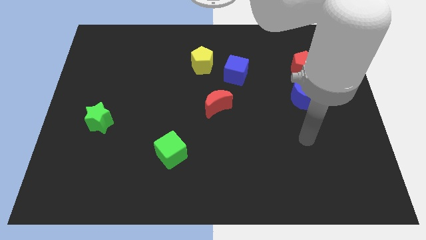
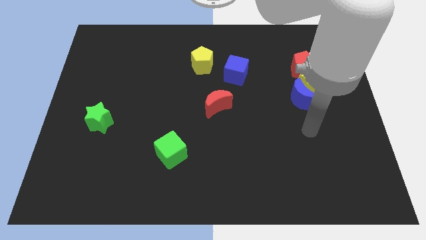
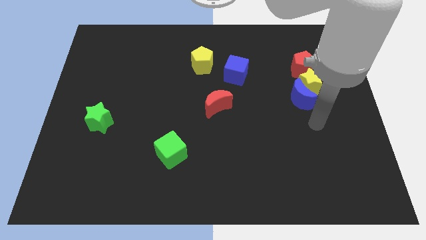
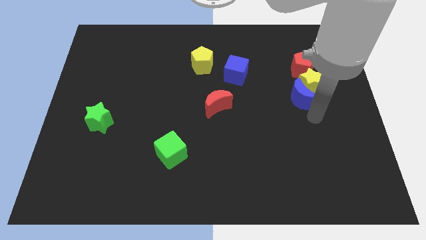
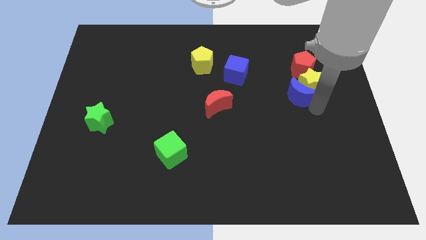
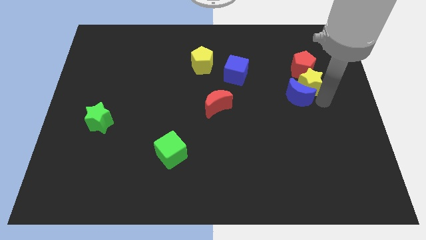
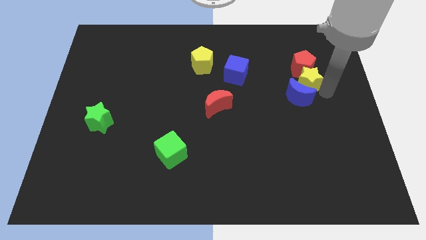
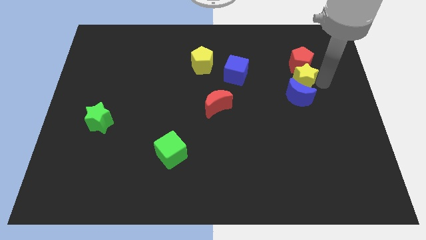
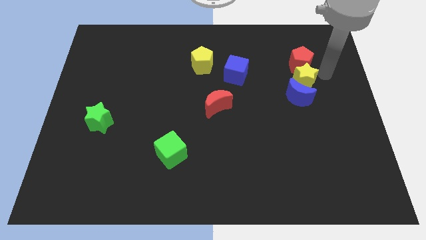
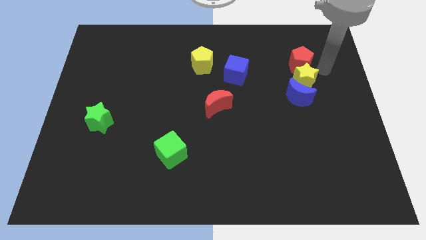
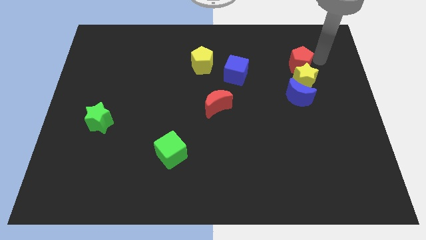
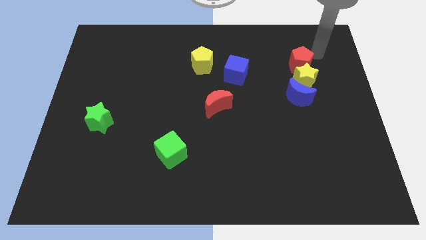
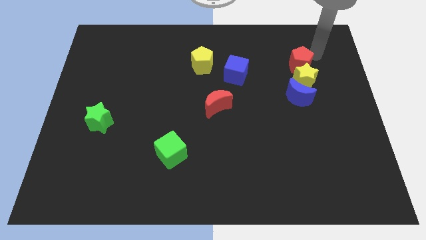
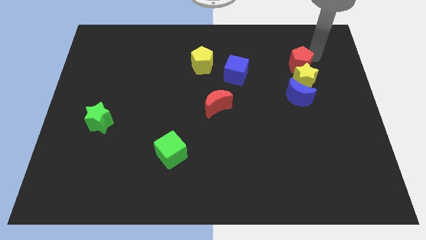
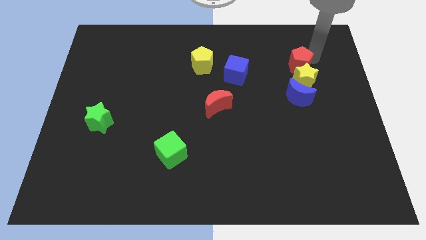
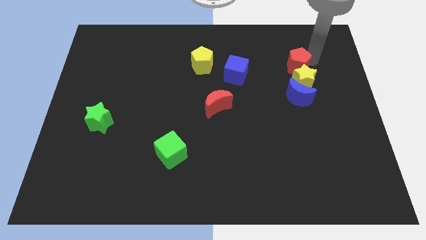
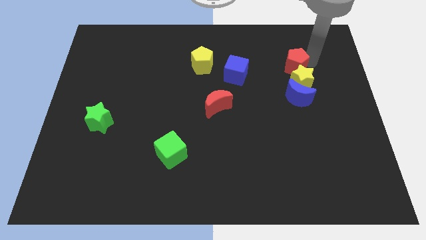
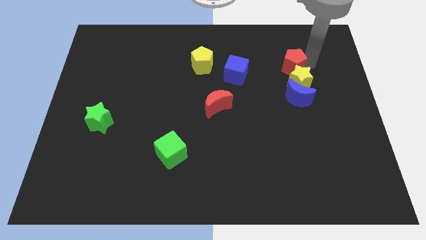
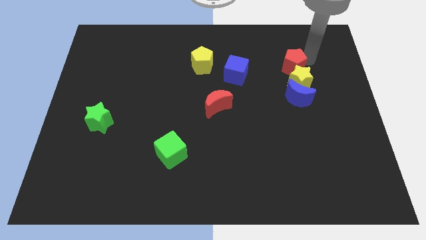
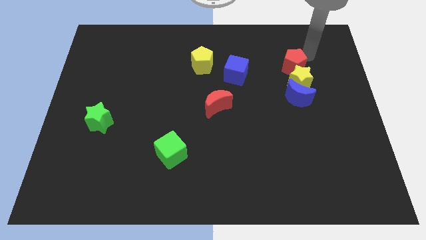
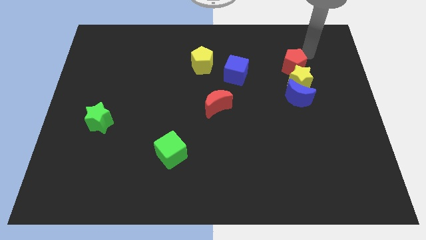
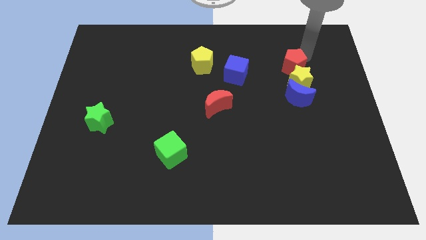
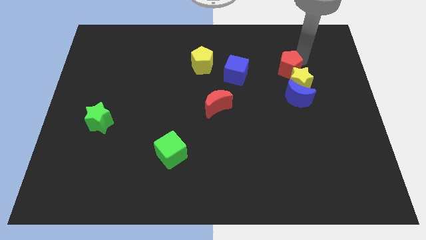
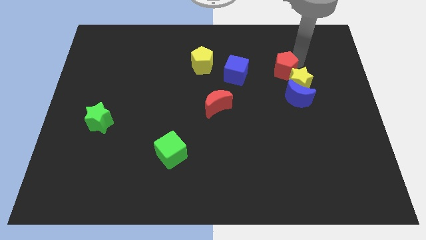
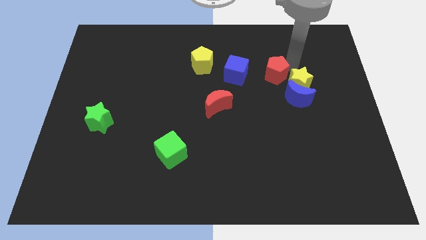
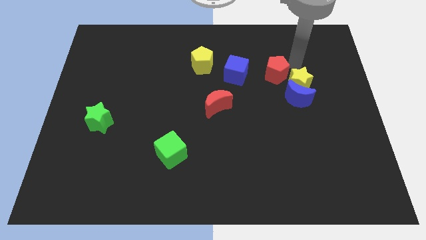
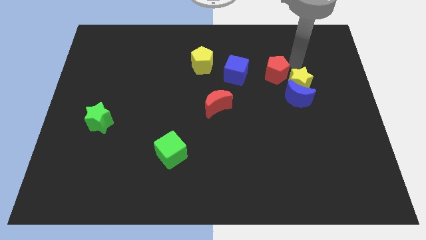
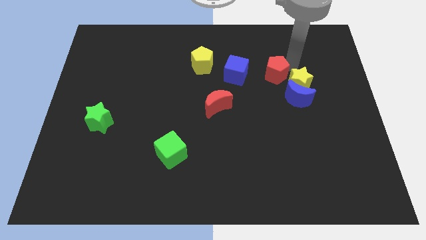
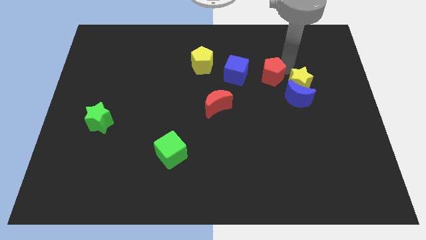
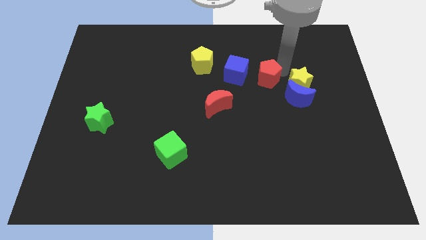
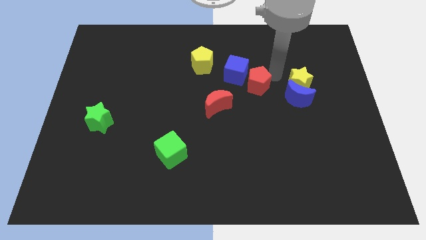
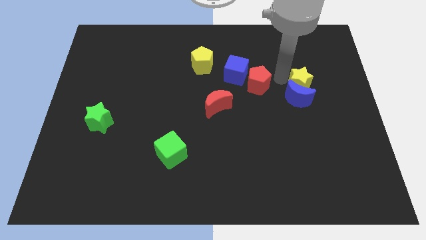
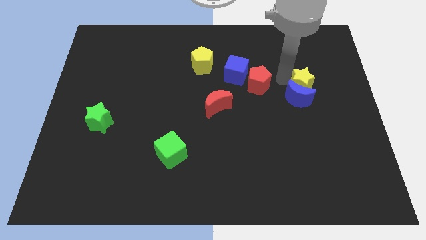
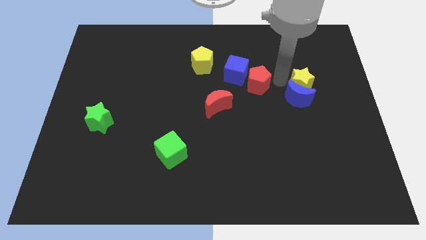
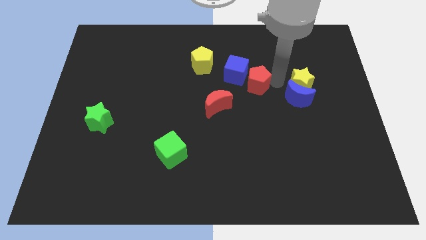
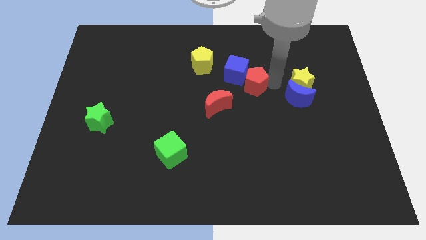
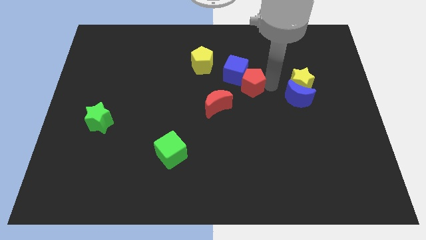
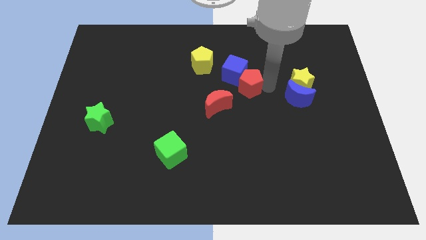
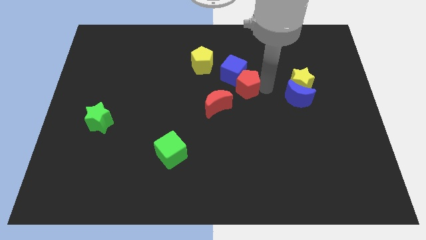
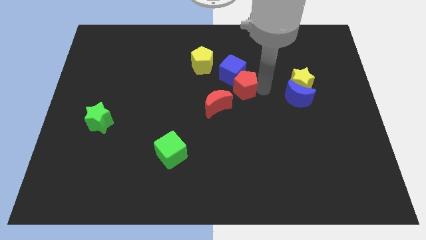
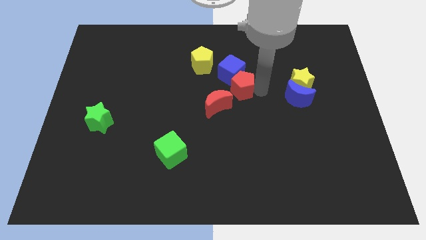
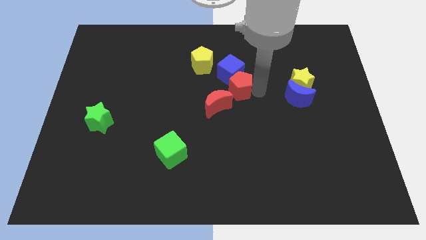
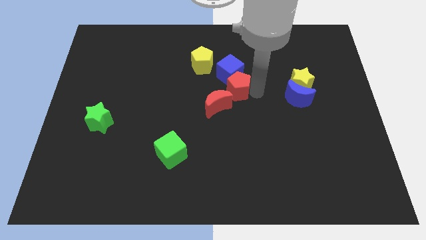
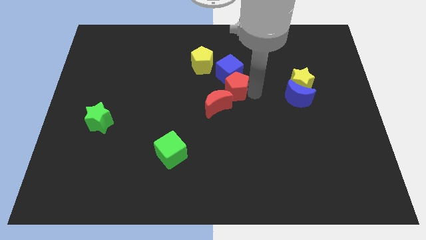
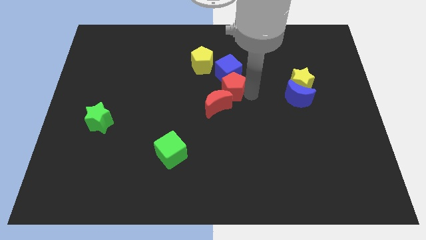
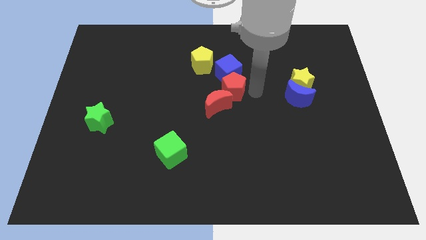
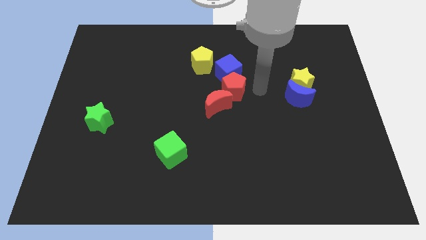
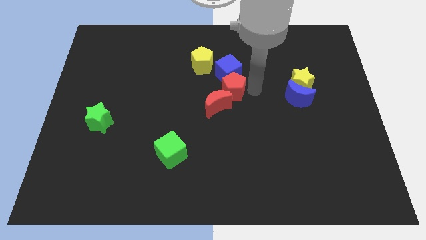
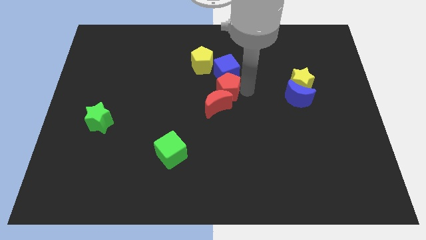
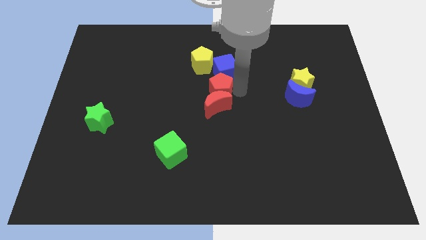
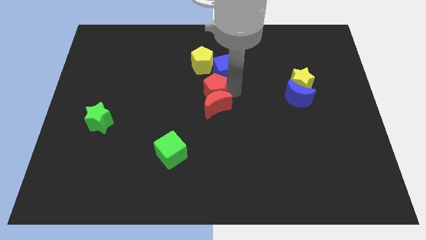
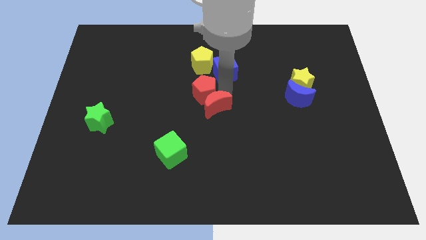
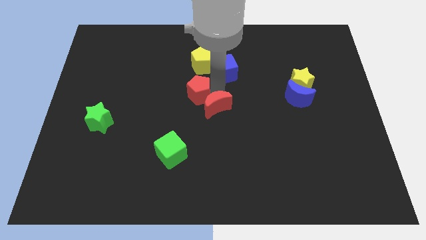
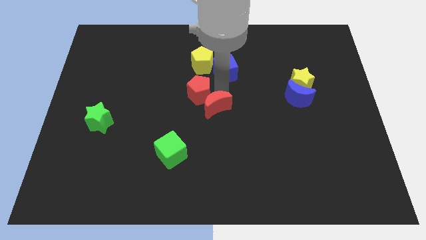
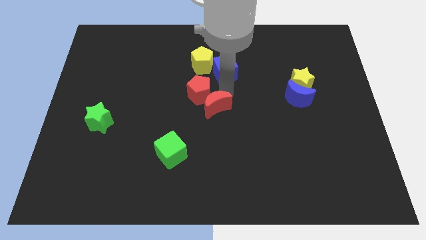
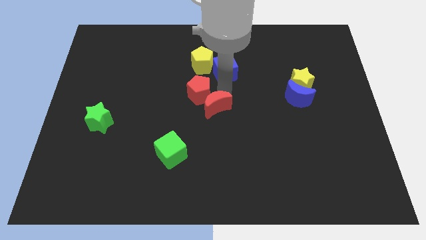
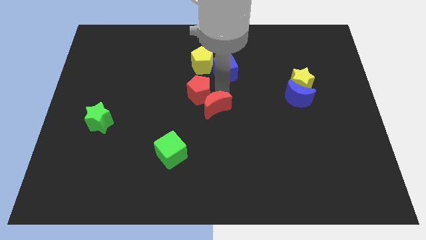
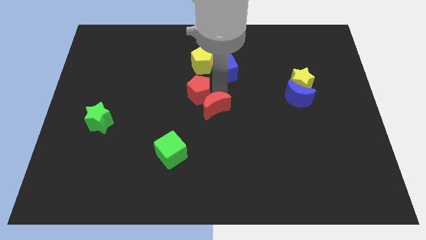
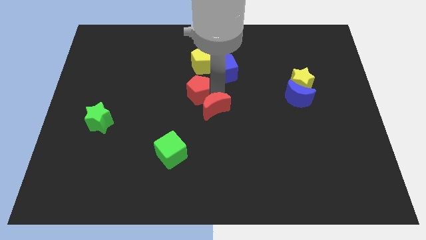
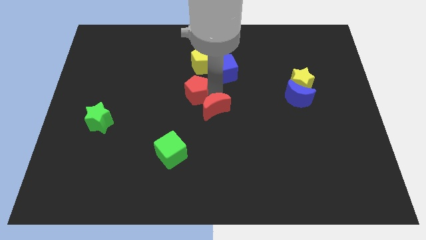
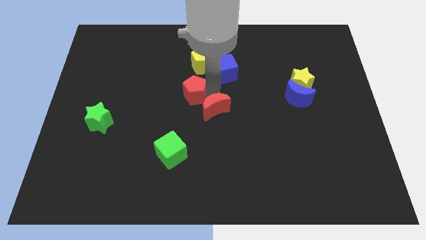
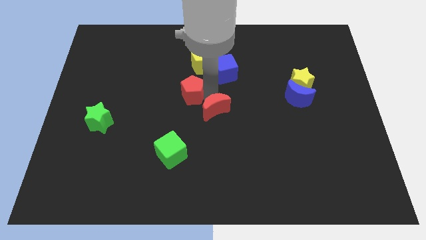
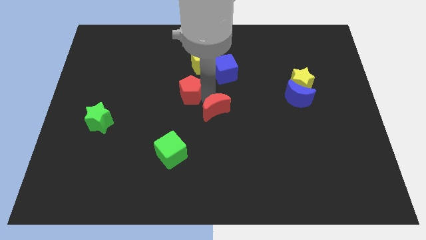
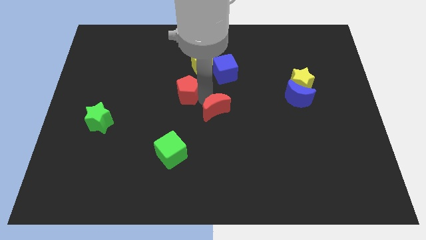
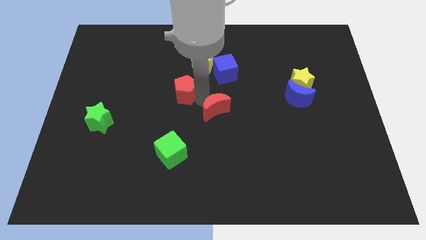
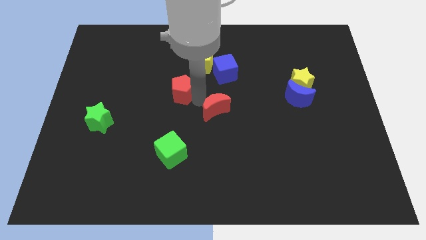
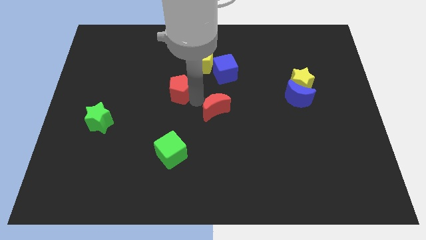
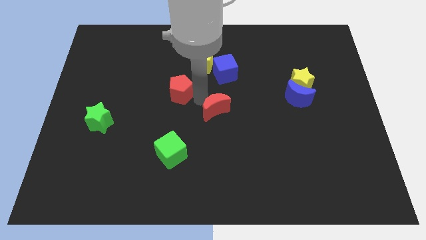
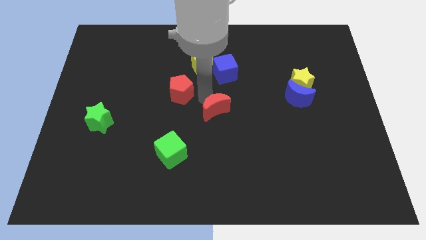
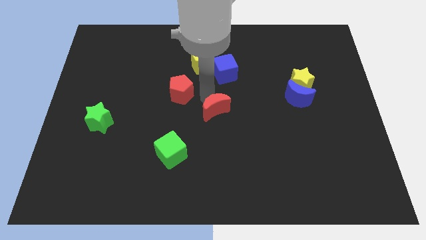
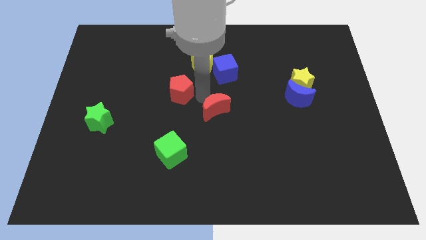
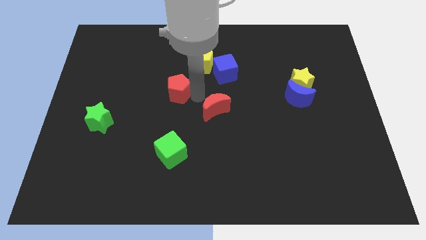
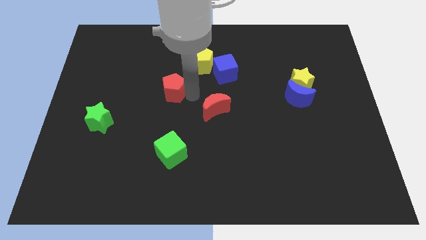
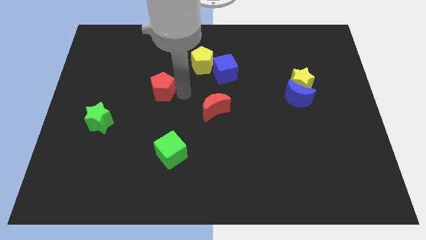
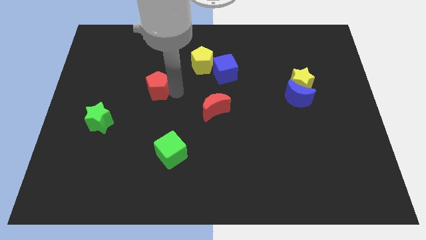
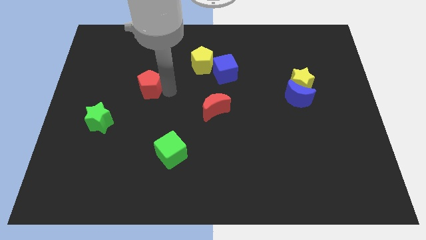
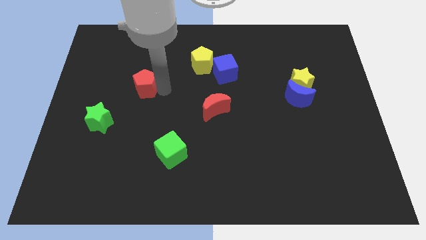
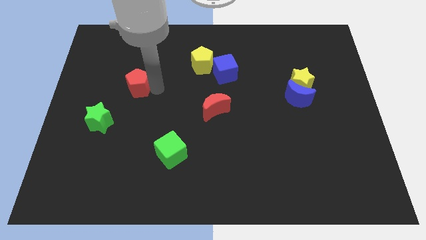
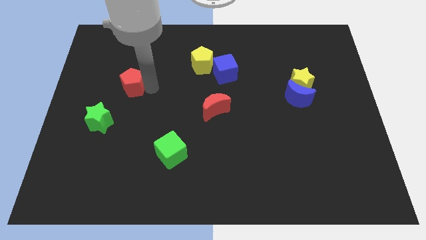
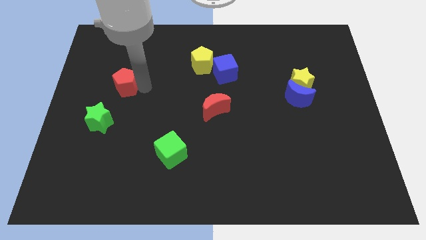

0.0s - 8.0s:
put the red pentagon to the top side of the green star
